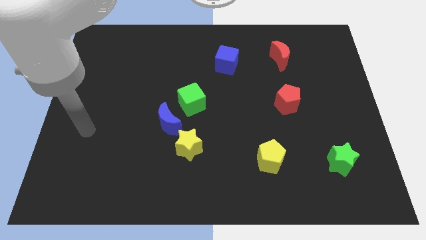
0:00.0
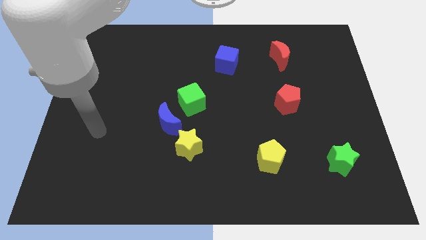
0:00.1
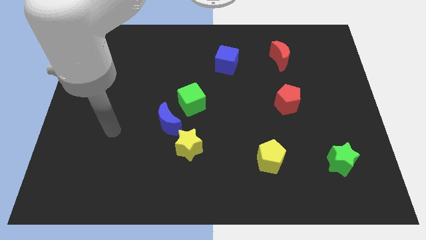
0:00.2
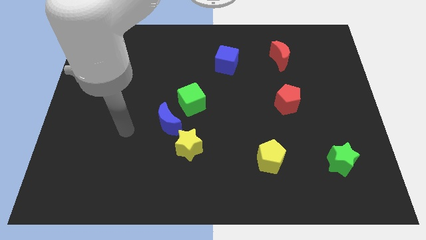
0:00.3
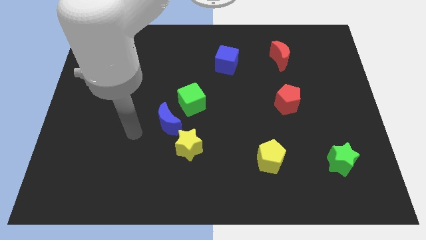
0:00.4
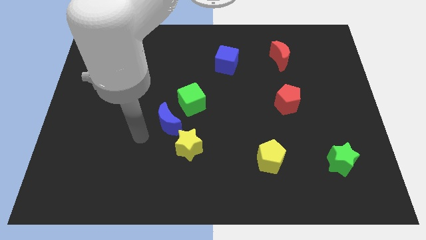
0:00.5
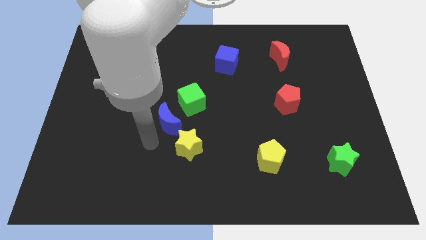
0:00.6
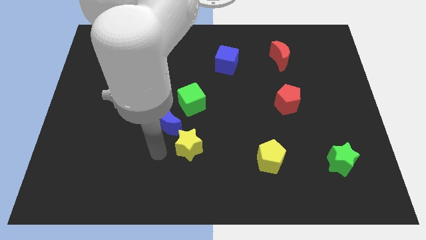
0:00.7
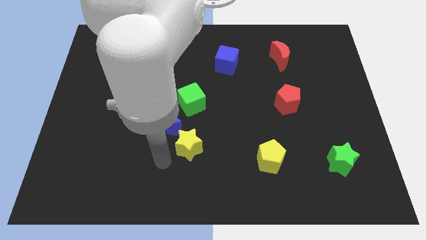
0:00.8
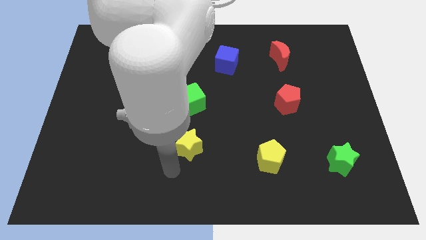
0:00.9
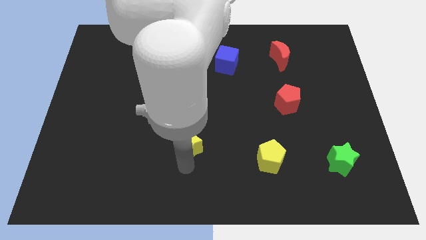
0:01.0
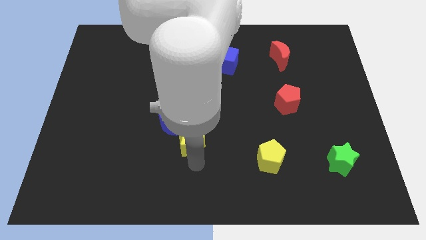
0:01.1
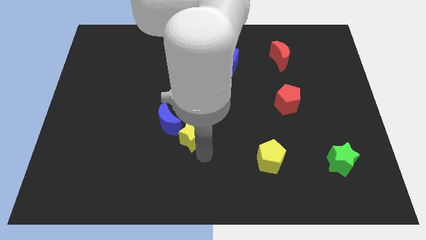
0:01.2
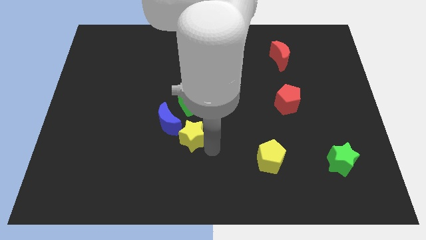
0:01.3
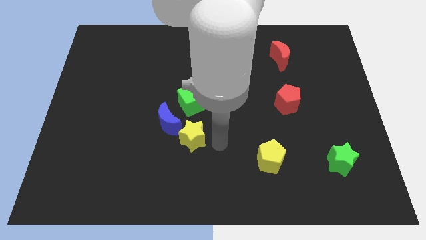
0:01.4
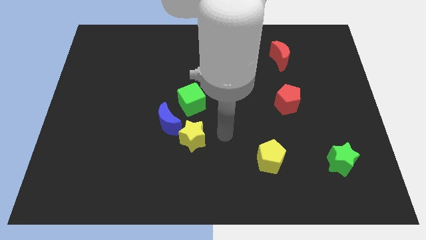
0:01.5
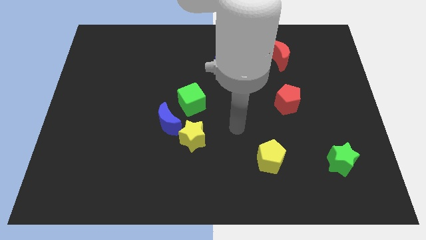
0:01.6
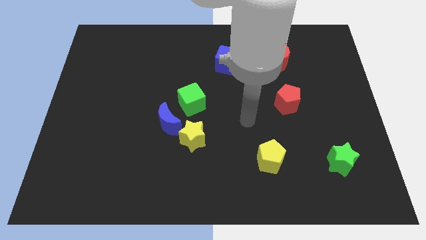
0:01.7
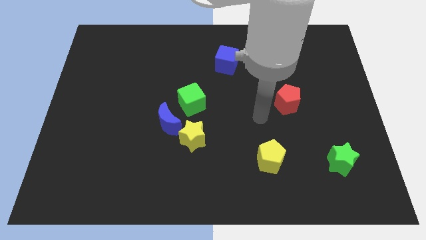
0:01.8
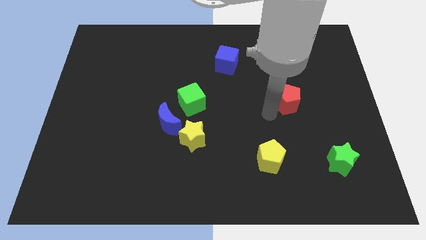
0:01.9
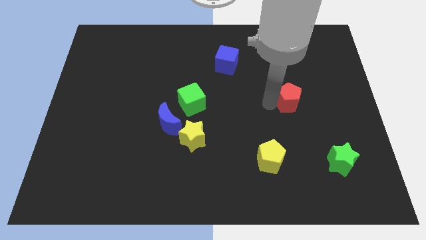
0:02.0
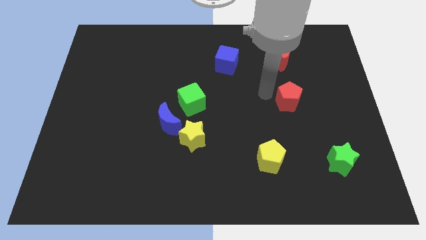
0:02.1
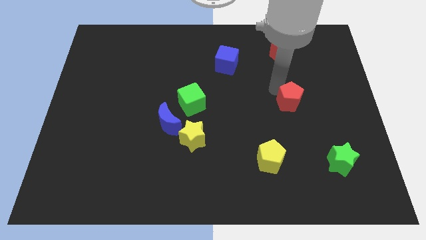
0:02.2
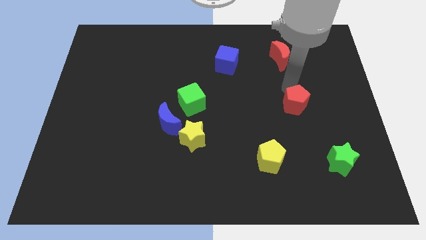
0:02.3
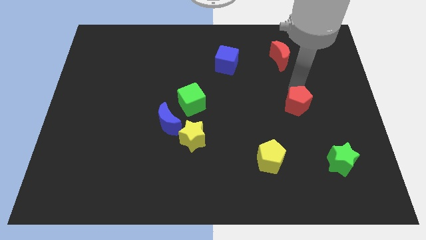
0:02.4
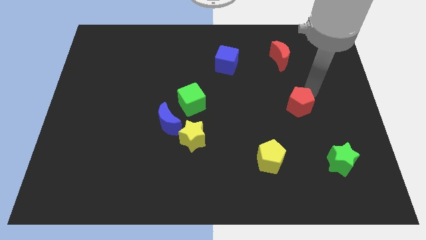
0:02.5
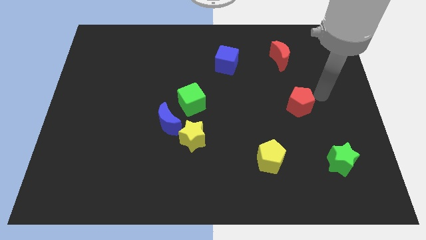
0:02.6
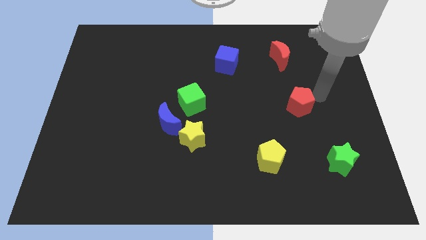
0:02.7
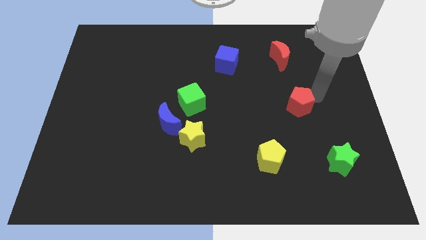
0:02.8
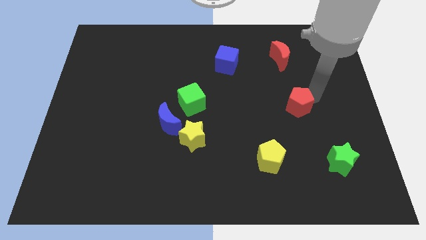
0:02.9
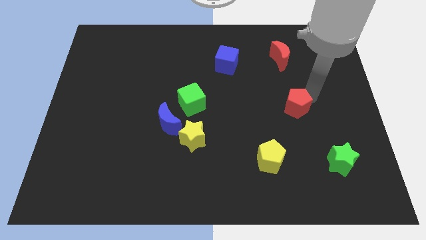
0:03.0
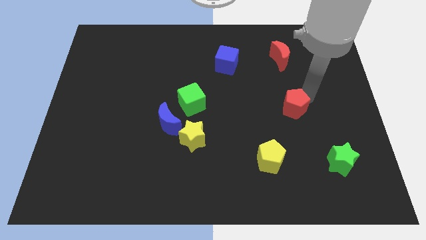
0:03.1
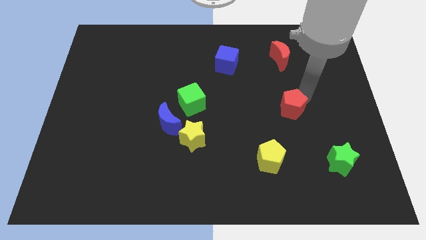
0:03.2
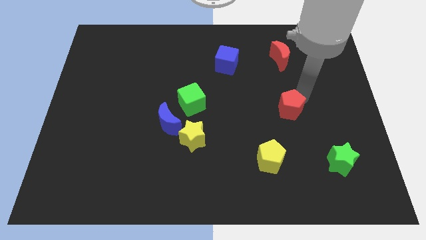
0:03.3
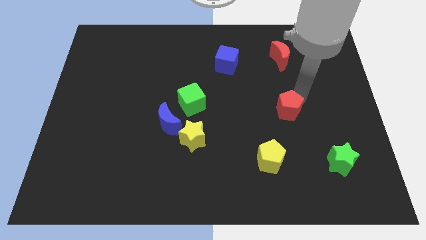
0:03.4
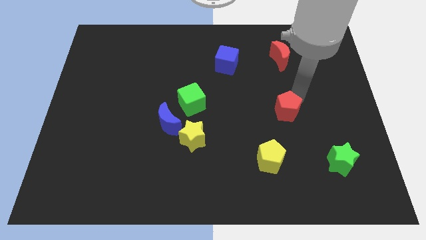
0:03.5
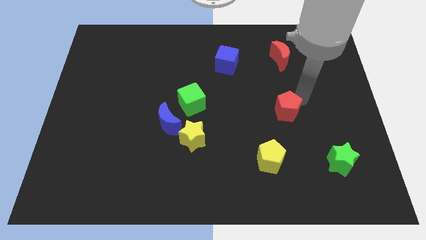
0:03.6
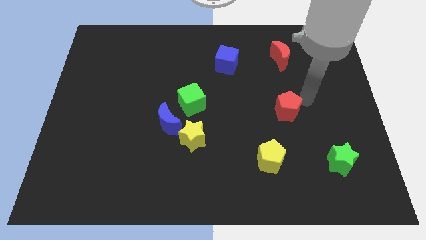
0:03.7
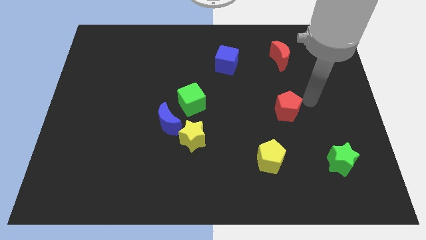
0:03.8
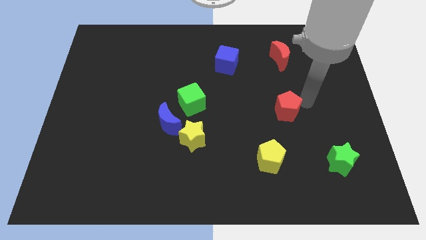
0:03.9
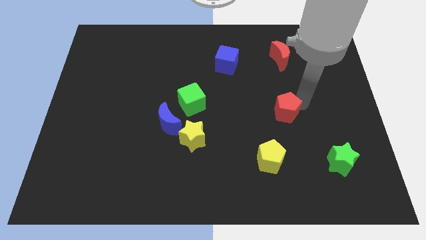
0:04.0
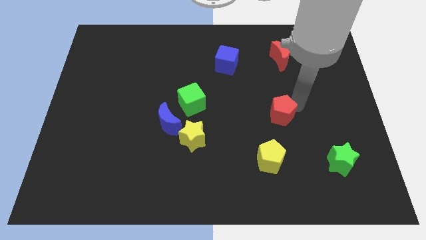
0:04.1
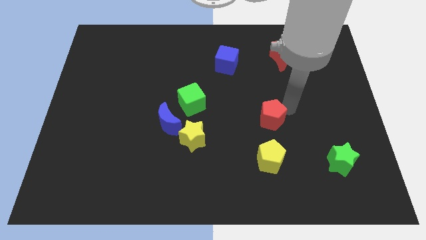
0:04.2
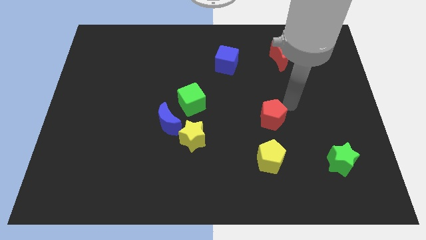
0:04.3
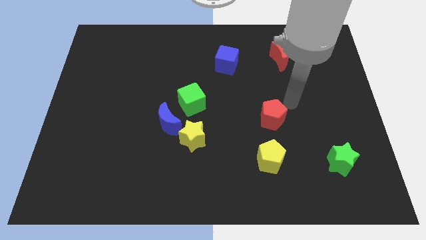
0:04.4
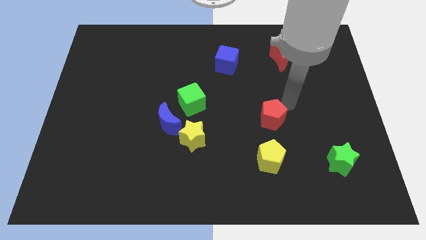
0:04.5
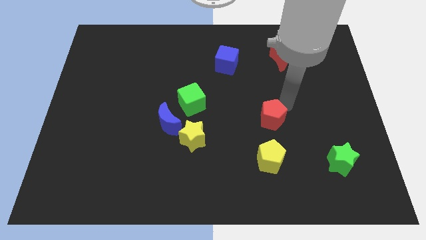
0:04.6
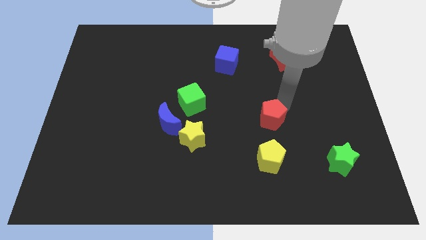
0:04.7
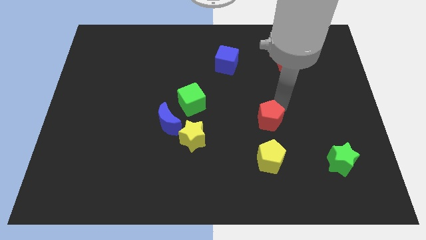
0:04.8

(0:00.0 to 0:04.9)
move the red pentagon slightly downwards and then left

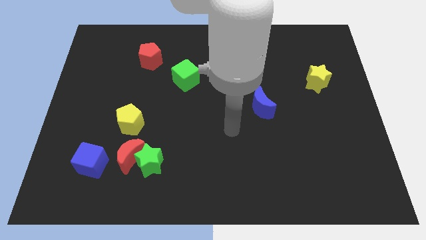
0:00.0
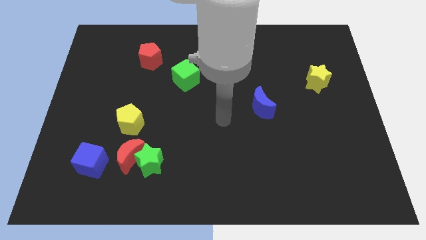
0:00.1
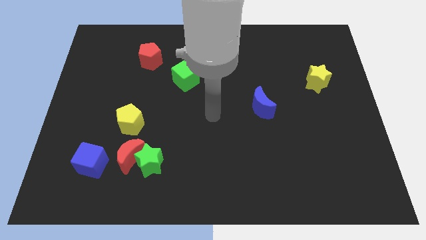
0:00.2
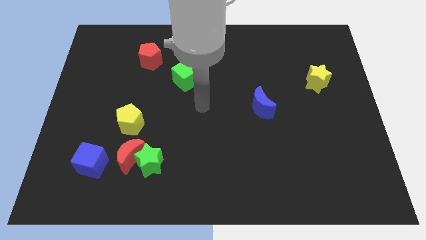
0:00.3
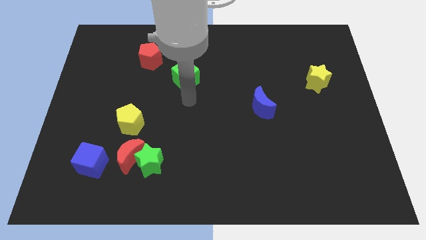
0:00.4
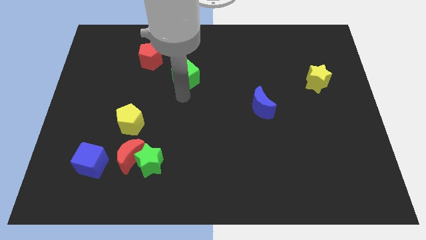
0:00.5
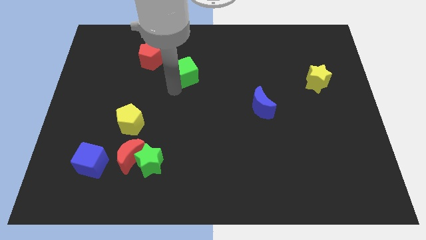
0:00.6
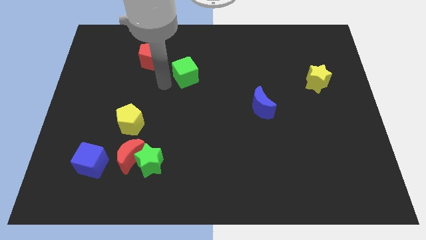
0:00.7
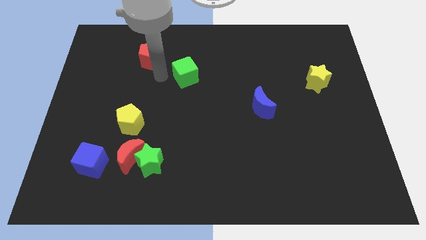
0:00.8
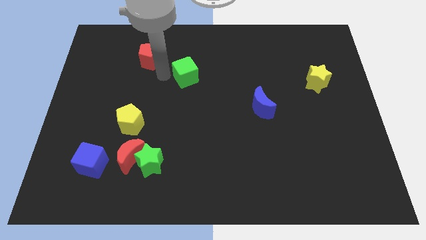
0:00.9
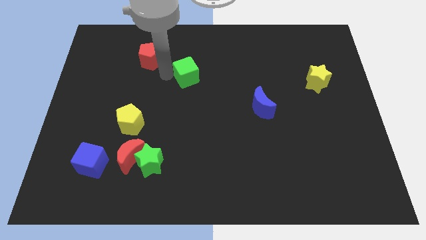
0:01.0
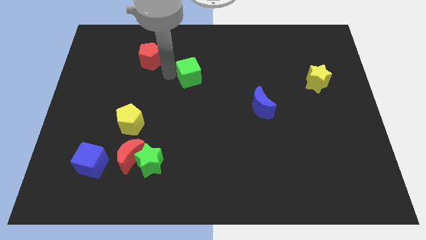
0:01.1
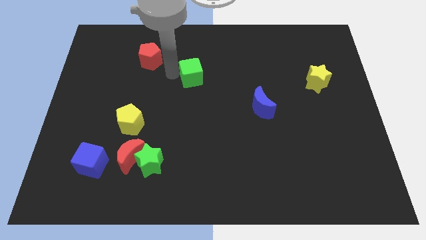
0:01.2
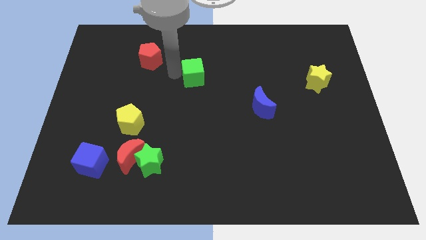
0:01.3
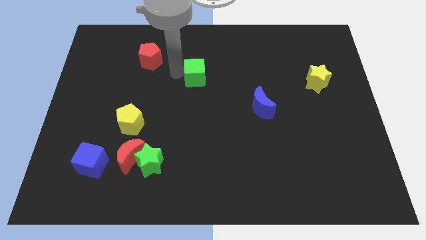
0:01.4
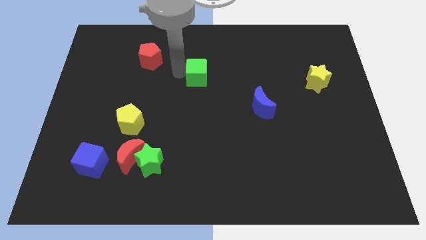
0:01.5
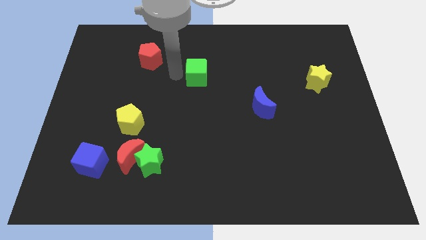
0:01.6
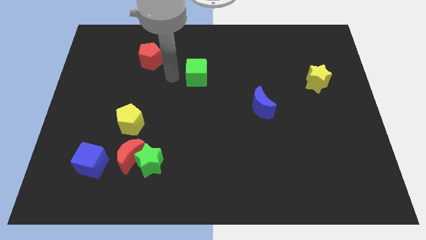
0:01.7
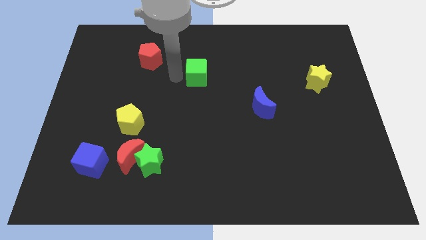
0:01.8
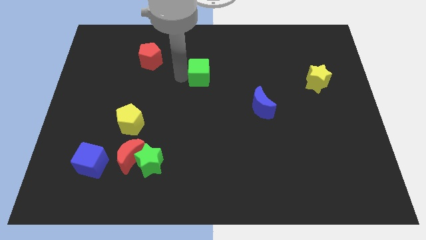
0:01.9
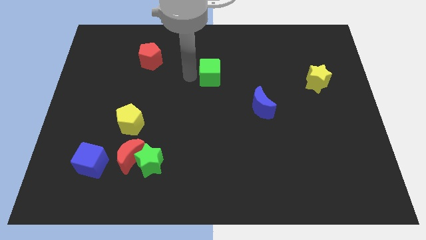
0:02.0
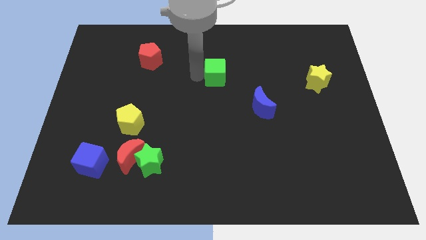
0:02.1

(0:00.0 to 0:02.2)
slightly push the green cube to the right

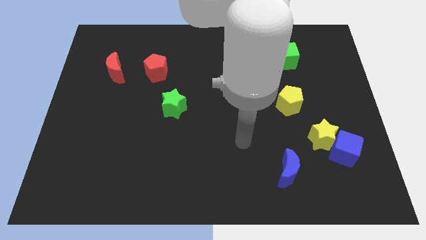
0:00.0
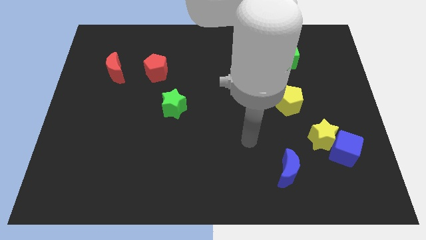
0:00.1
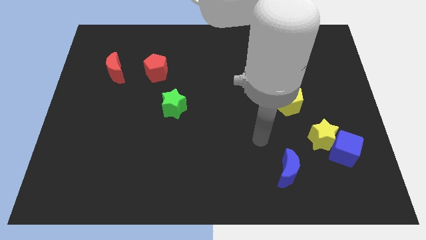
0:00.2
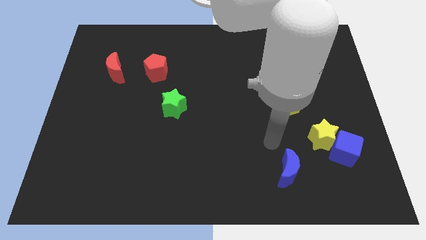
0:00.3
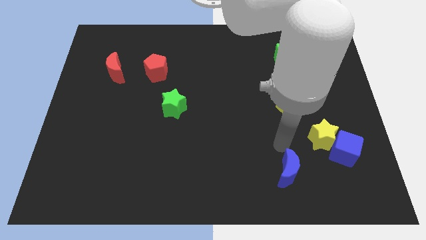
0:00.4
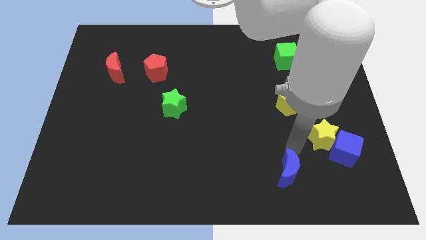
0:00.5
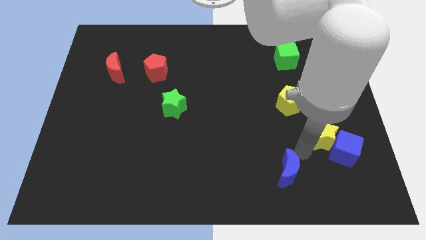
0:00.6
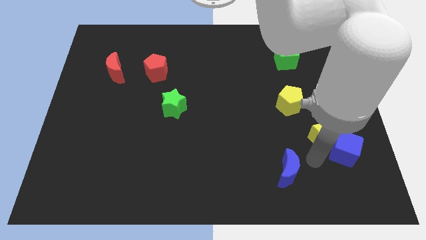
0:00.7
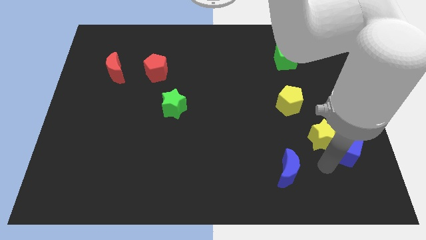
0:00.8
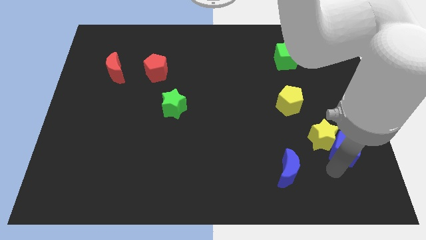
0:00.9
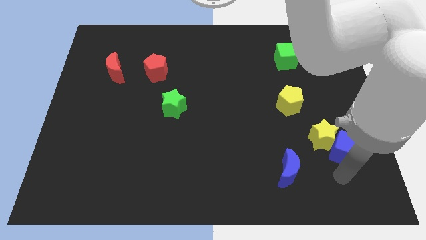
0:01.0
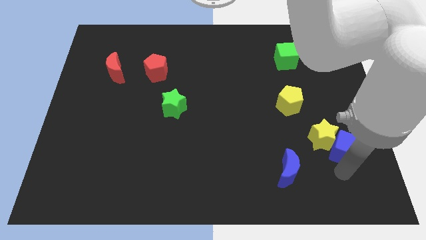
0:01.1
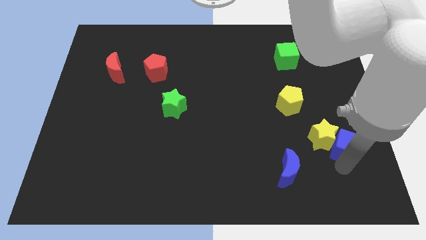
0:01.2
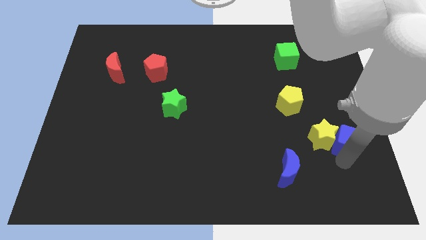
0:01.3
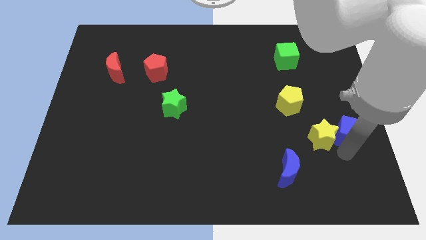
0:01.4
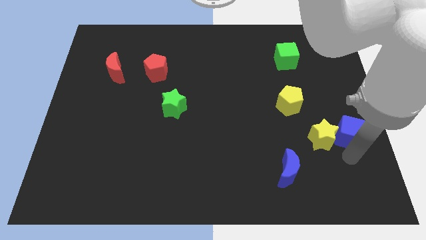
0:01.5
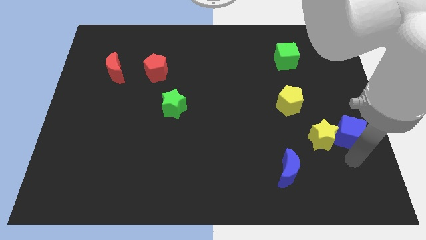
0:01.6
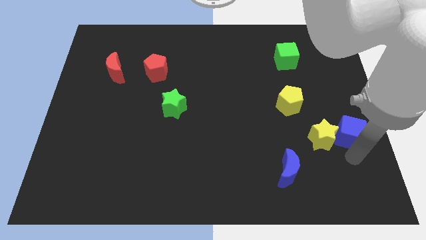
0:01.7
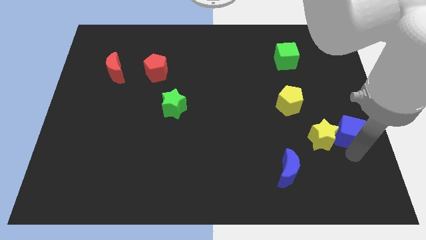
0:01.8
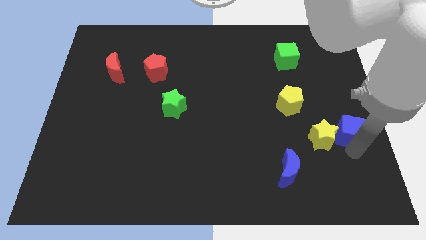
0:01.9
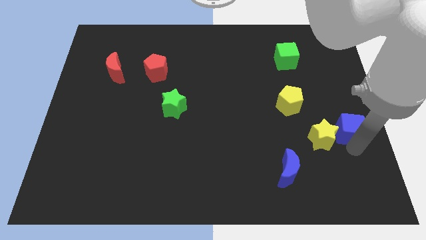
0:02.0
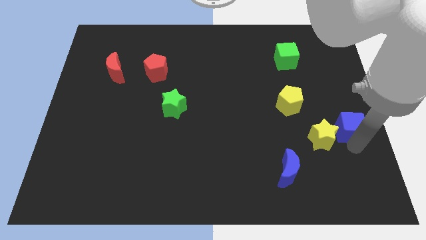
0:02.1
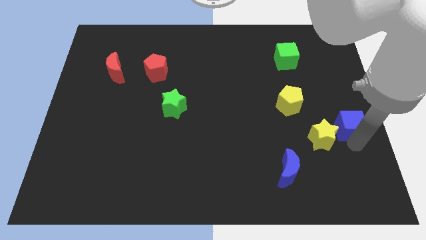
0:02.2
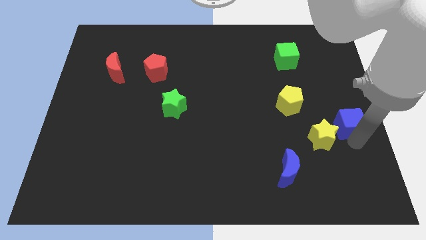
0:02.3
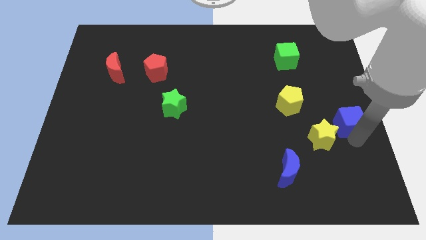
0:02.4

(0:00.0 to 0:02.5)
push the blue cube a little up
